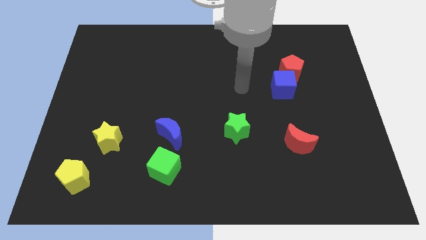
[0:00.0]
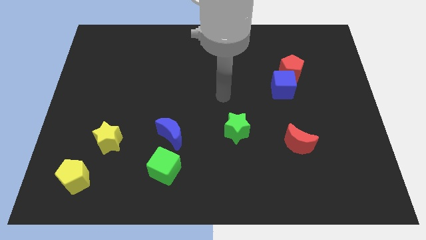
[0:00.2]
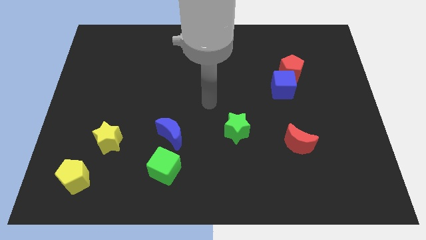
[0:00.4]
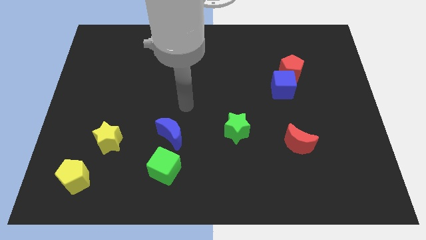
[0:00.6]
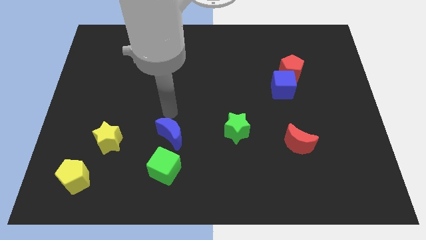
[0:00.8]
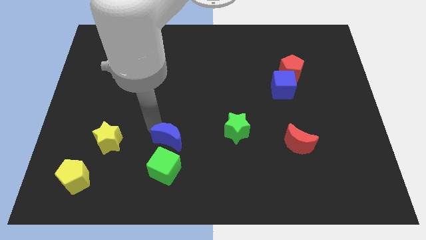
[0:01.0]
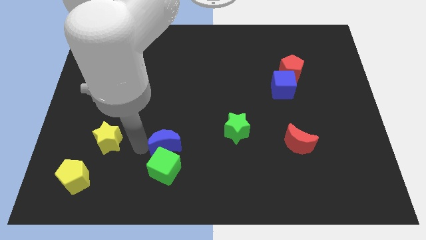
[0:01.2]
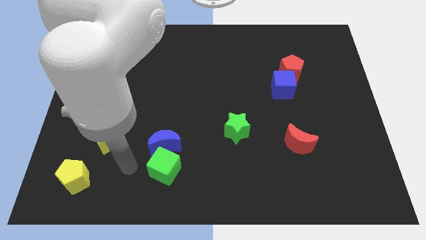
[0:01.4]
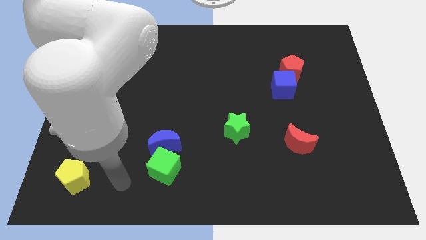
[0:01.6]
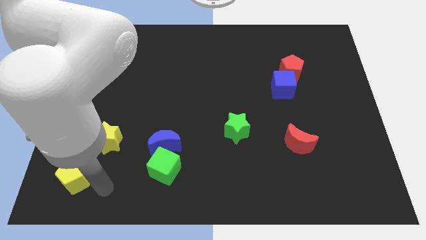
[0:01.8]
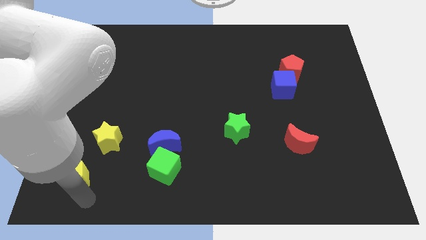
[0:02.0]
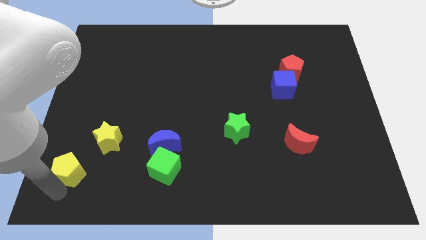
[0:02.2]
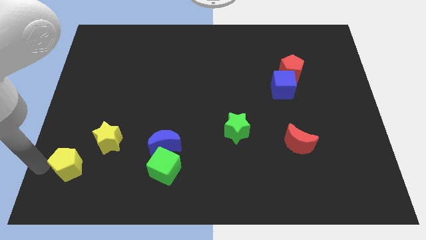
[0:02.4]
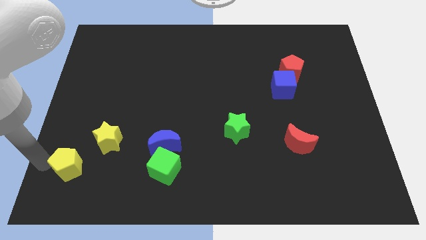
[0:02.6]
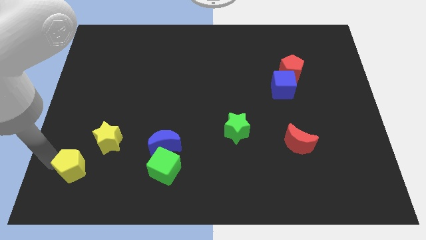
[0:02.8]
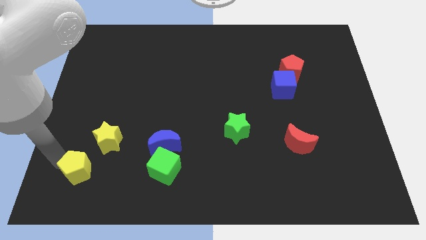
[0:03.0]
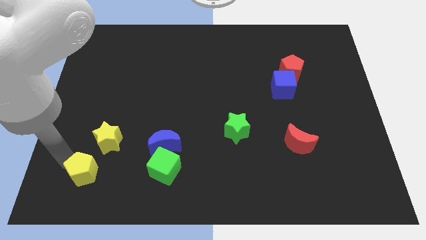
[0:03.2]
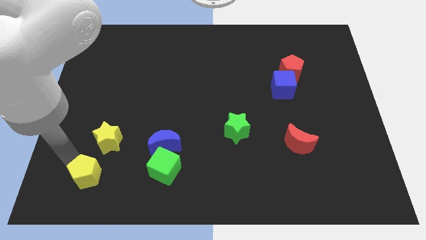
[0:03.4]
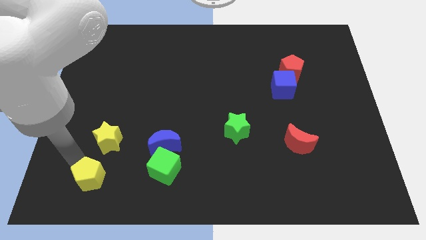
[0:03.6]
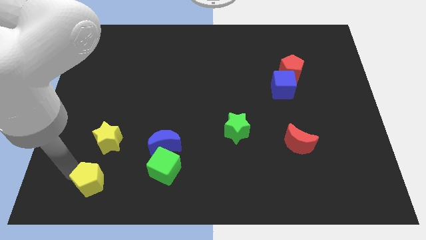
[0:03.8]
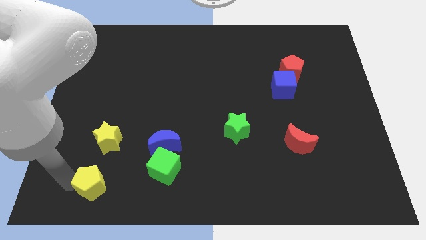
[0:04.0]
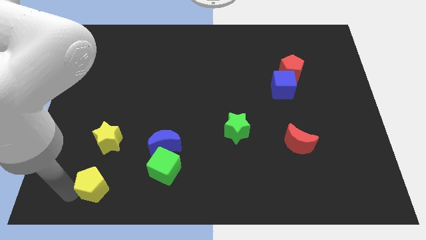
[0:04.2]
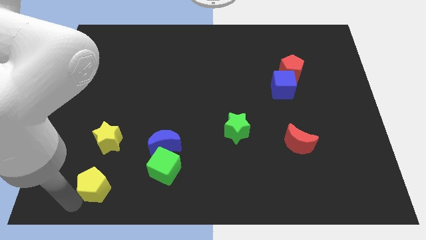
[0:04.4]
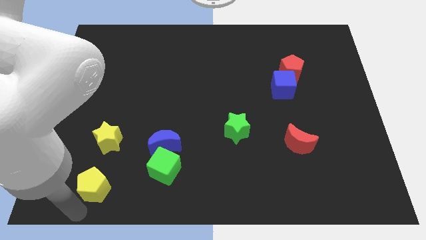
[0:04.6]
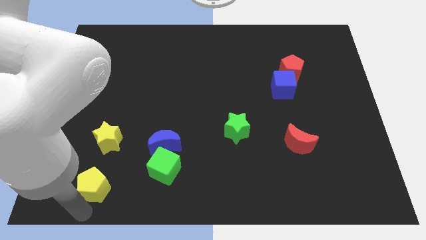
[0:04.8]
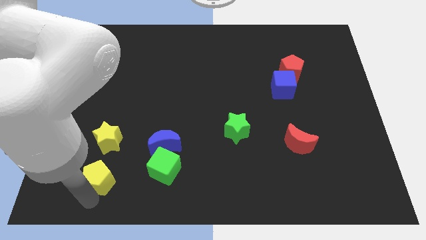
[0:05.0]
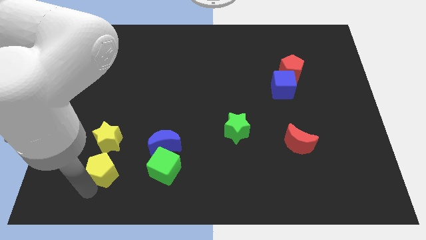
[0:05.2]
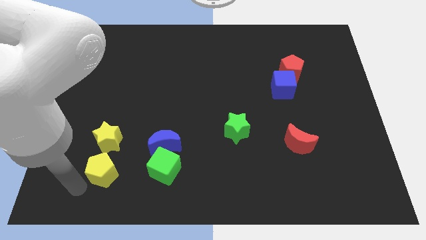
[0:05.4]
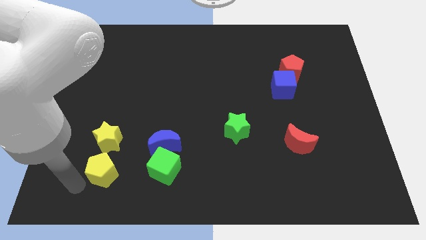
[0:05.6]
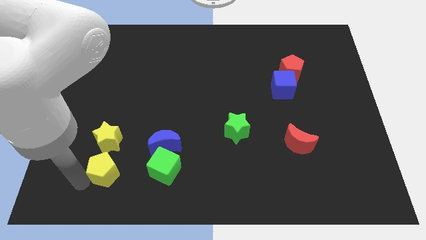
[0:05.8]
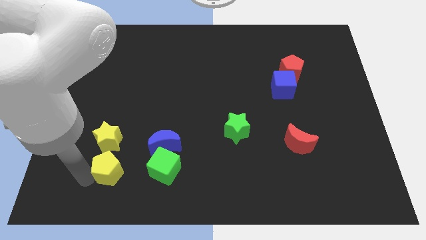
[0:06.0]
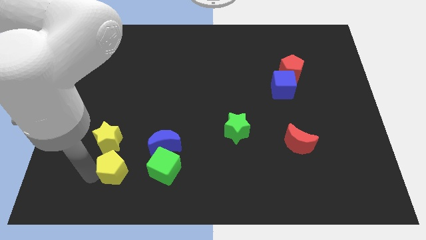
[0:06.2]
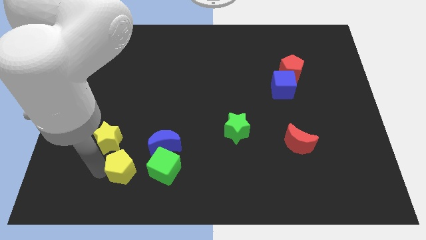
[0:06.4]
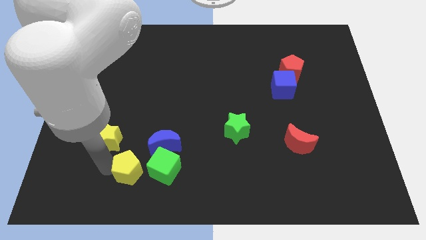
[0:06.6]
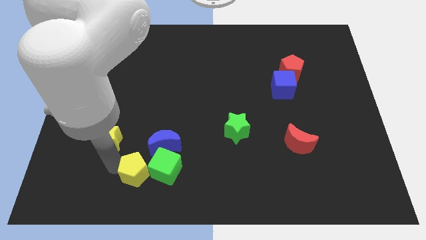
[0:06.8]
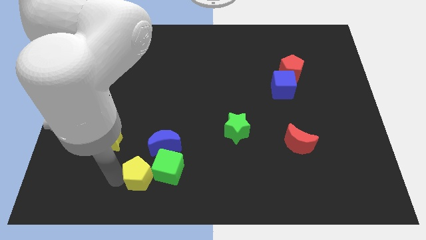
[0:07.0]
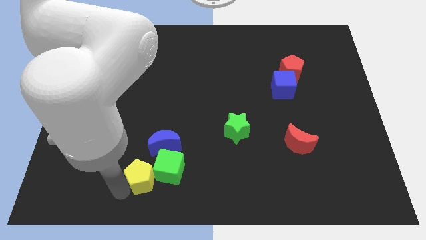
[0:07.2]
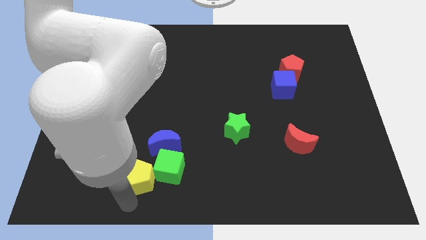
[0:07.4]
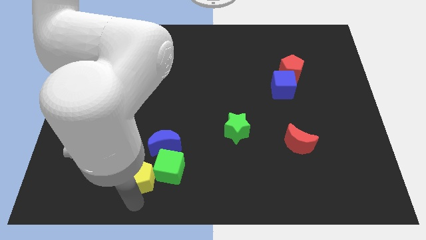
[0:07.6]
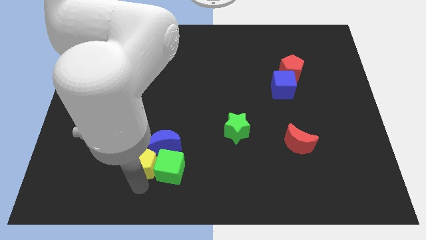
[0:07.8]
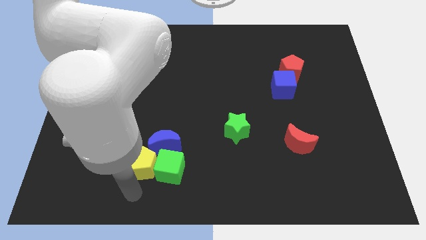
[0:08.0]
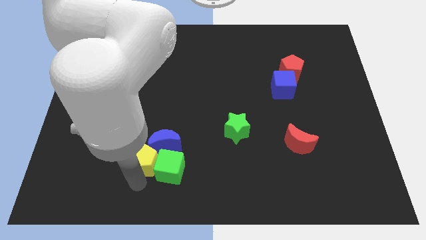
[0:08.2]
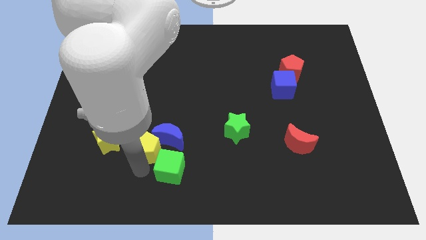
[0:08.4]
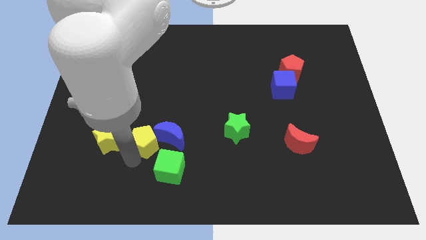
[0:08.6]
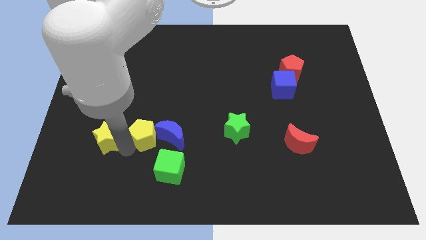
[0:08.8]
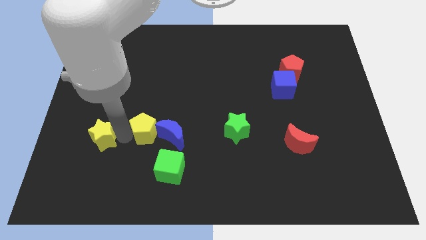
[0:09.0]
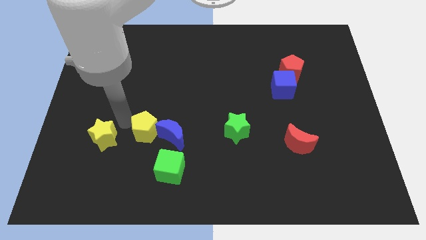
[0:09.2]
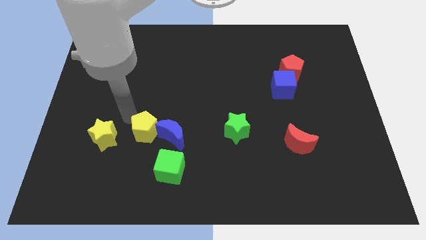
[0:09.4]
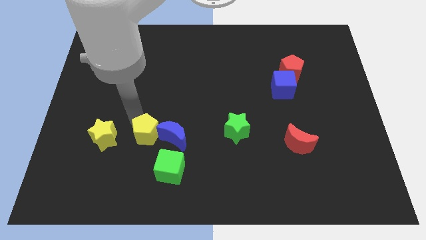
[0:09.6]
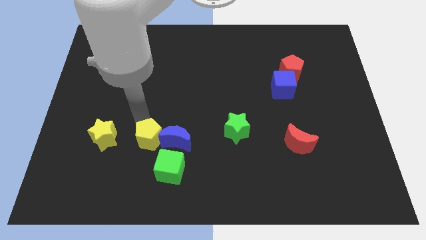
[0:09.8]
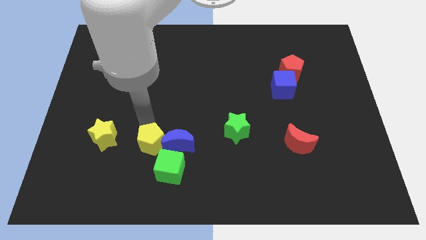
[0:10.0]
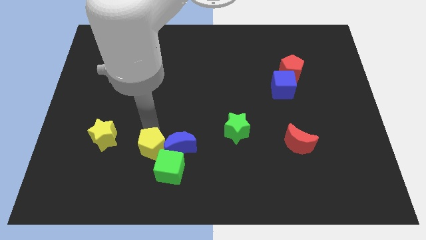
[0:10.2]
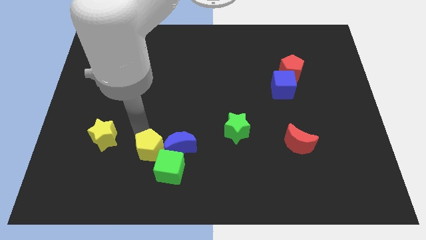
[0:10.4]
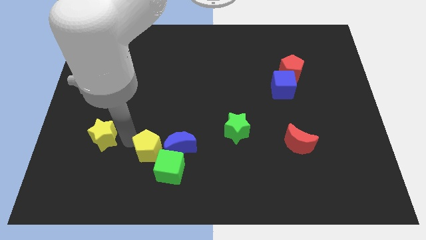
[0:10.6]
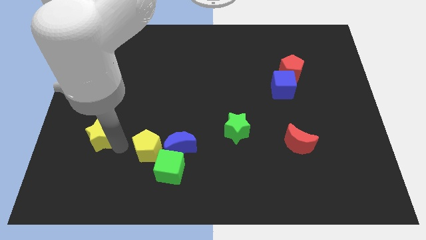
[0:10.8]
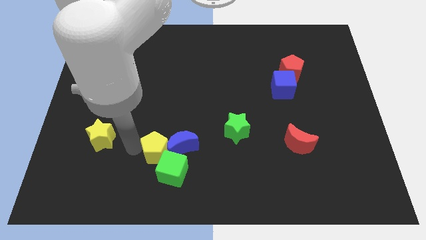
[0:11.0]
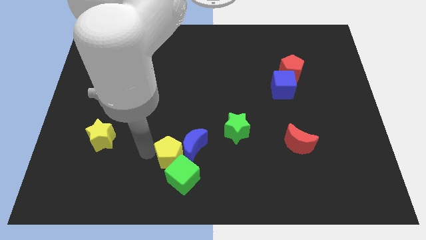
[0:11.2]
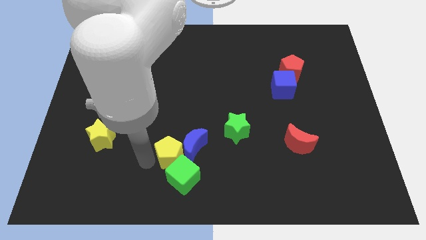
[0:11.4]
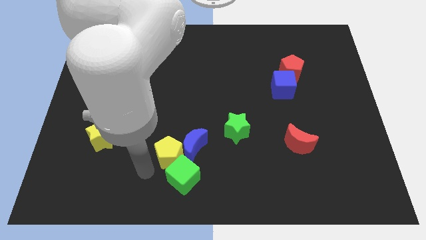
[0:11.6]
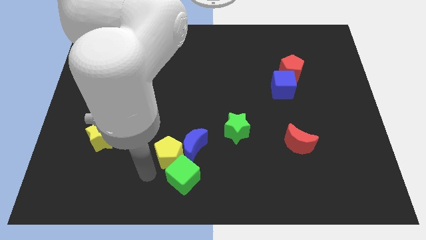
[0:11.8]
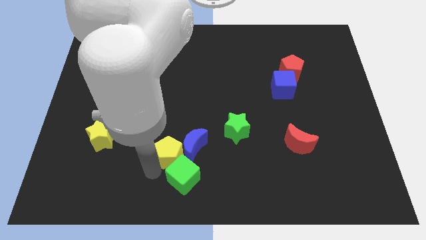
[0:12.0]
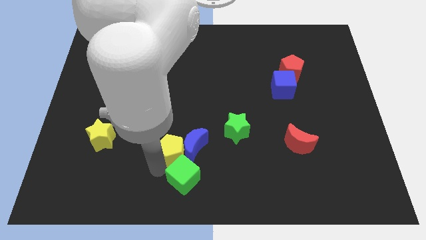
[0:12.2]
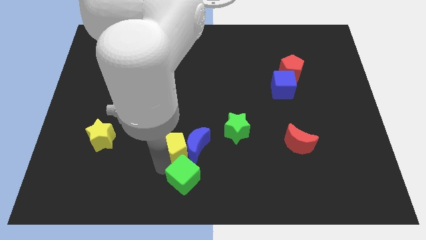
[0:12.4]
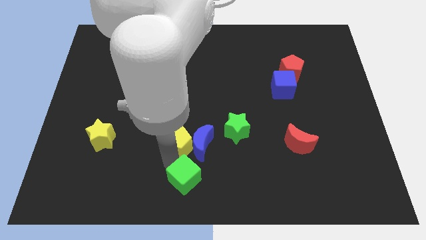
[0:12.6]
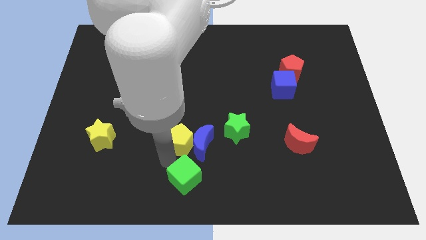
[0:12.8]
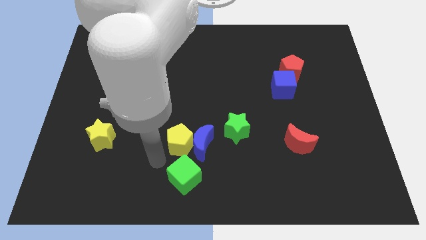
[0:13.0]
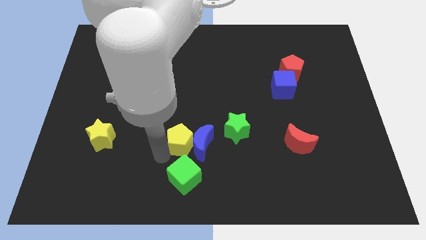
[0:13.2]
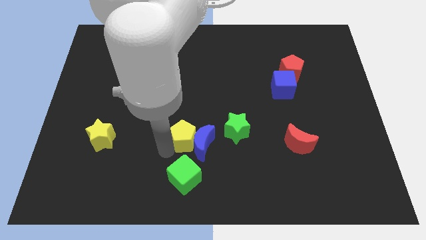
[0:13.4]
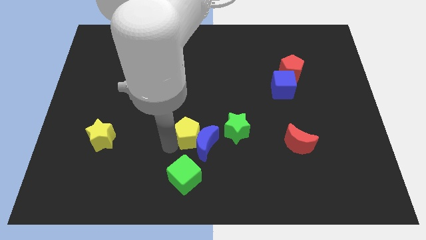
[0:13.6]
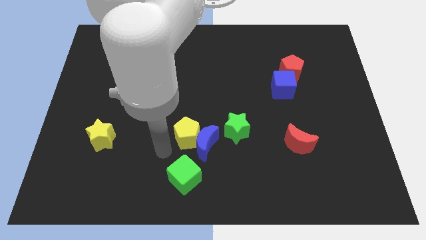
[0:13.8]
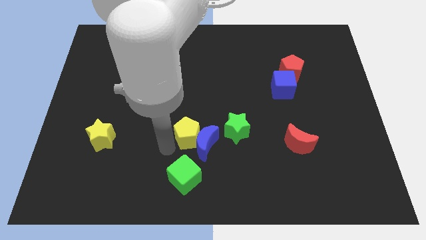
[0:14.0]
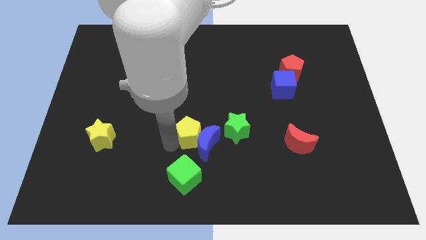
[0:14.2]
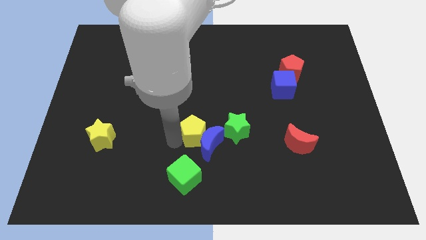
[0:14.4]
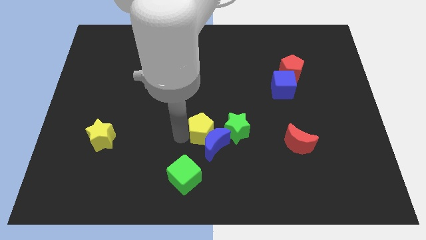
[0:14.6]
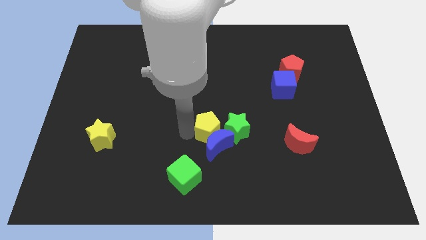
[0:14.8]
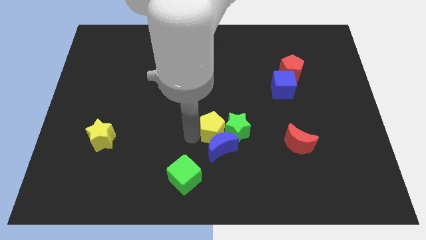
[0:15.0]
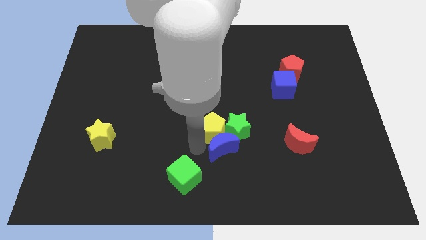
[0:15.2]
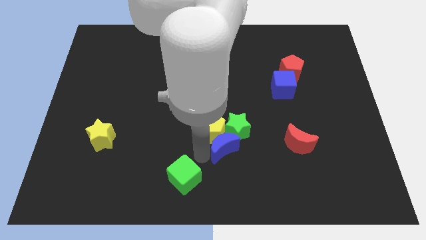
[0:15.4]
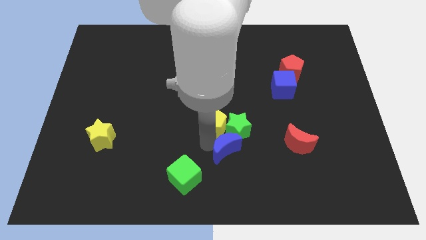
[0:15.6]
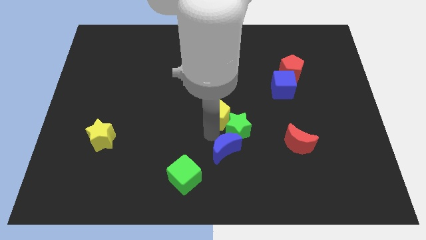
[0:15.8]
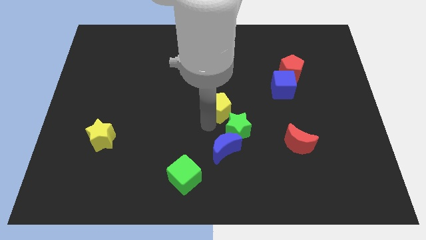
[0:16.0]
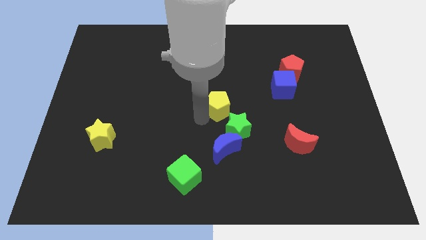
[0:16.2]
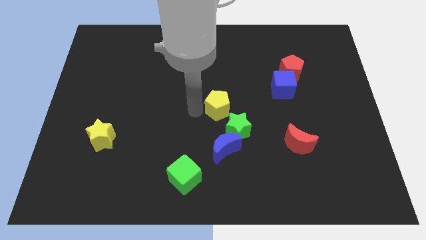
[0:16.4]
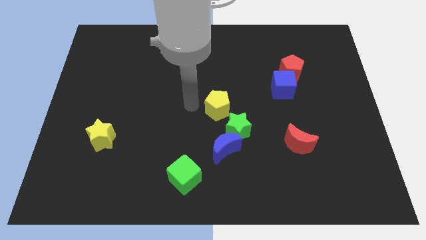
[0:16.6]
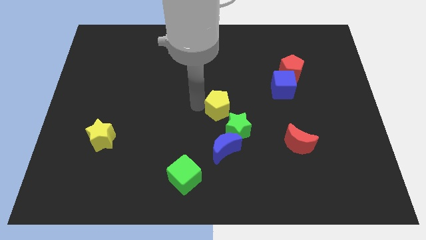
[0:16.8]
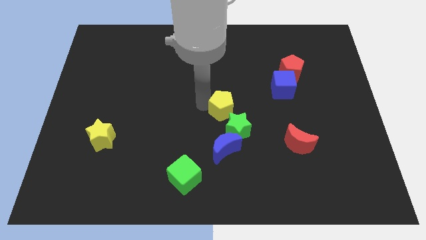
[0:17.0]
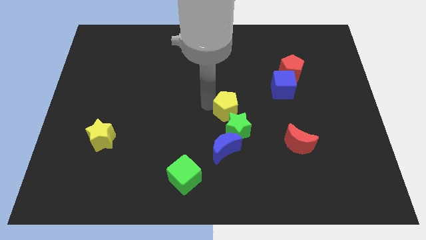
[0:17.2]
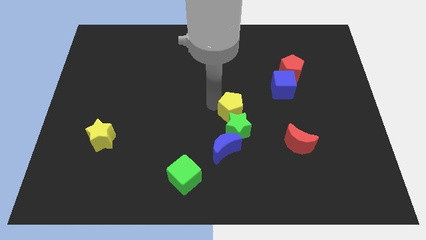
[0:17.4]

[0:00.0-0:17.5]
slide the yellow pentagon to the top right side of the green star
